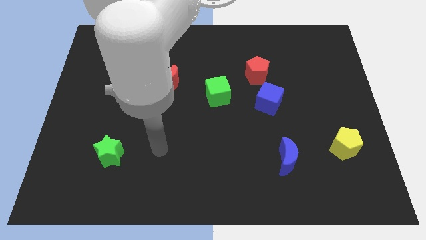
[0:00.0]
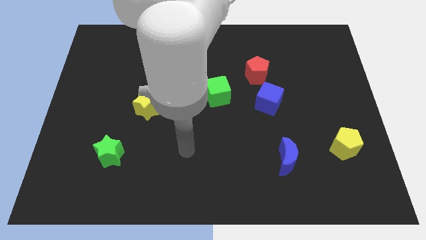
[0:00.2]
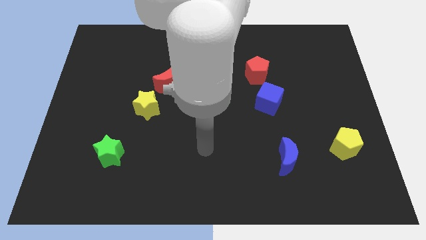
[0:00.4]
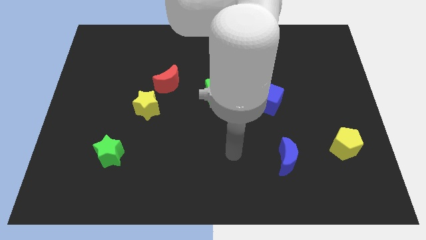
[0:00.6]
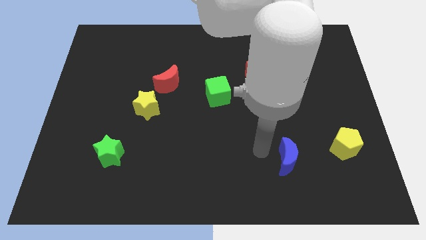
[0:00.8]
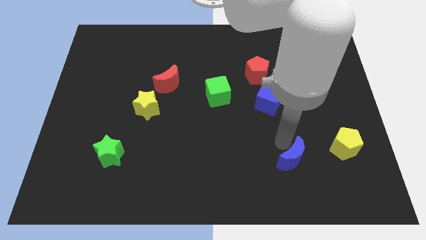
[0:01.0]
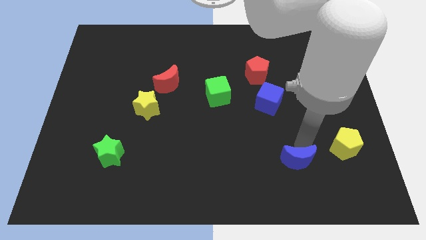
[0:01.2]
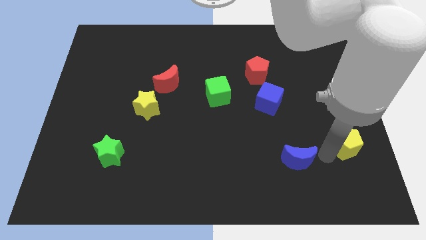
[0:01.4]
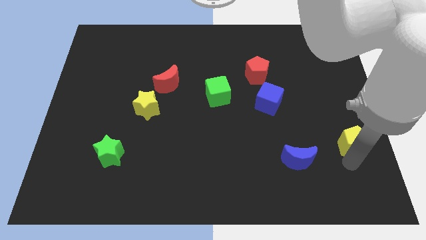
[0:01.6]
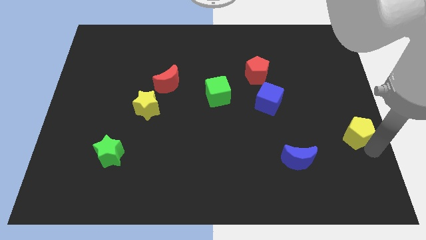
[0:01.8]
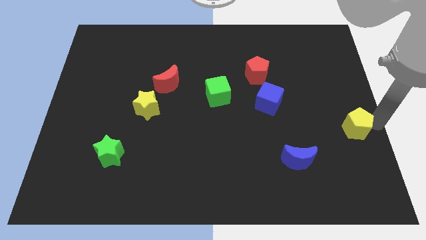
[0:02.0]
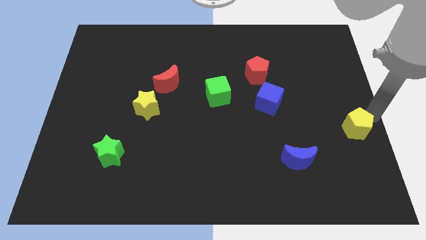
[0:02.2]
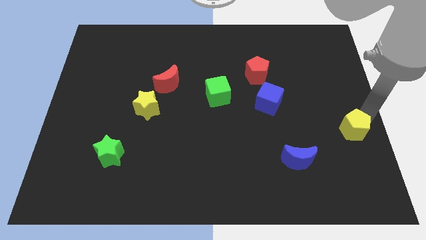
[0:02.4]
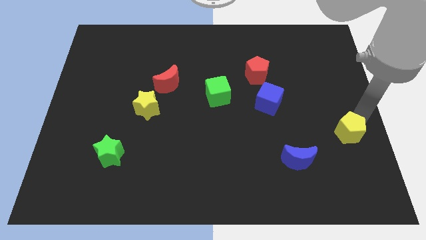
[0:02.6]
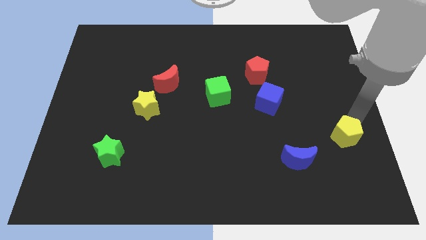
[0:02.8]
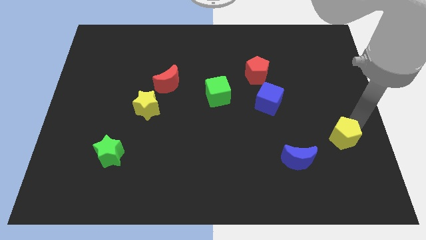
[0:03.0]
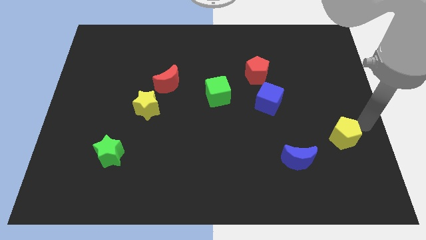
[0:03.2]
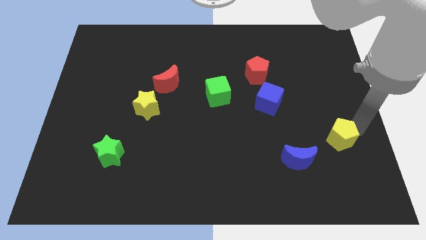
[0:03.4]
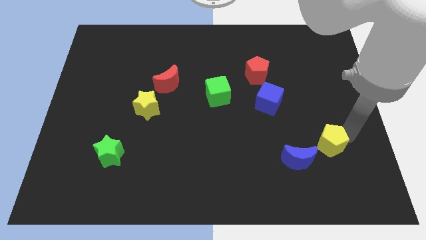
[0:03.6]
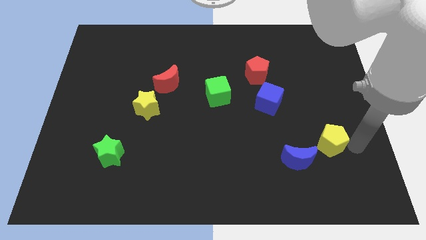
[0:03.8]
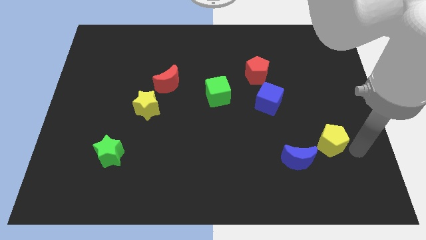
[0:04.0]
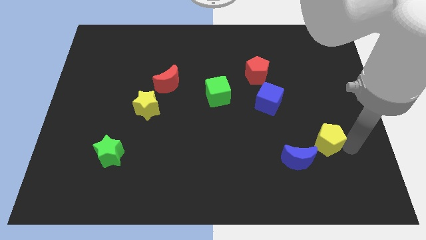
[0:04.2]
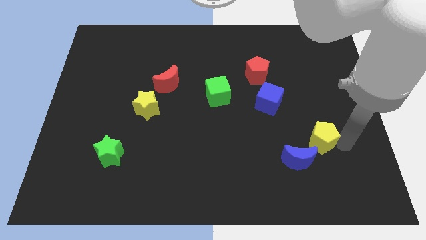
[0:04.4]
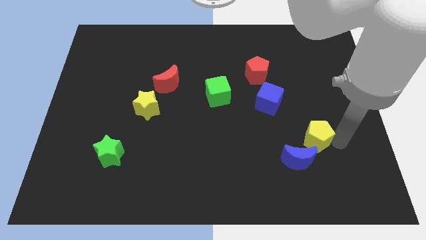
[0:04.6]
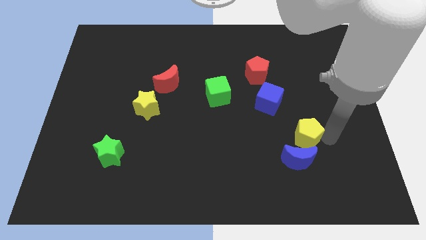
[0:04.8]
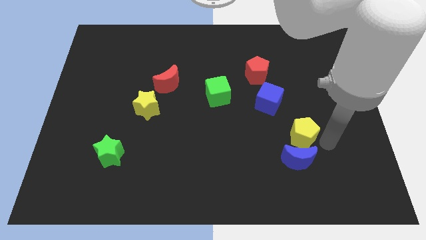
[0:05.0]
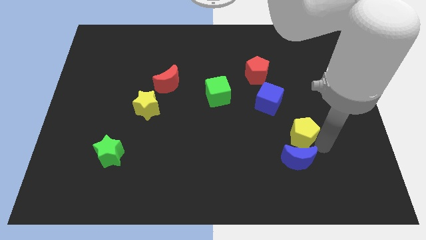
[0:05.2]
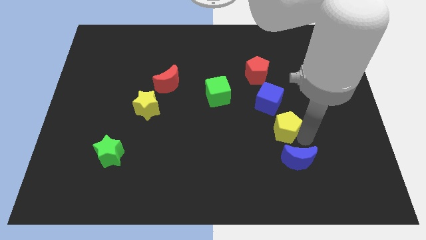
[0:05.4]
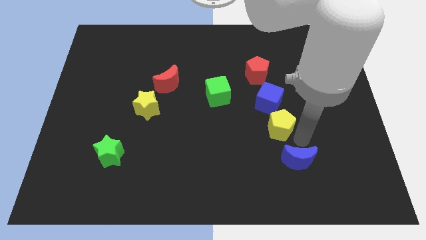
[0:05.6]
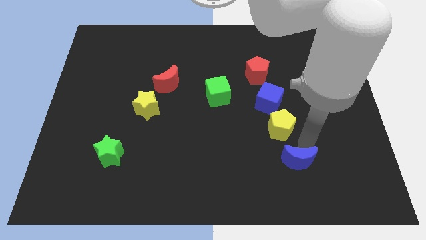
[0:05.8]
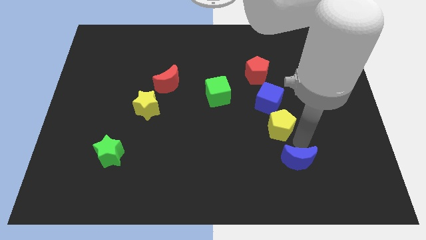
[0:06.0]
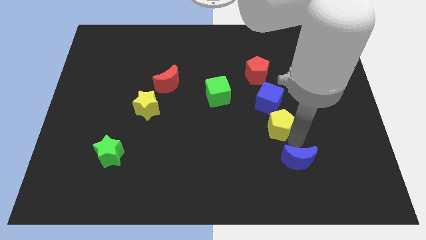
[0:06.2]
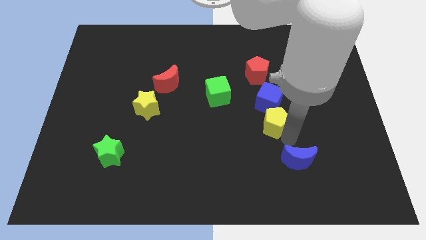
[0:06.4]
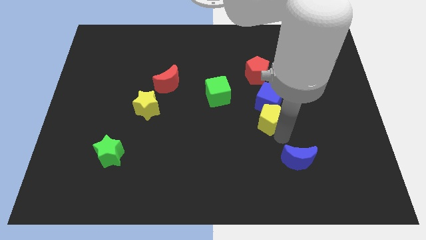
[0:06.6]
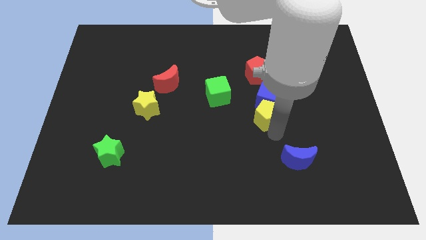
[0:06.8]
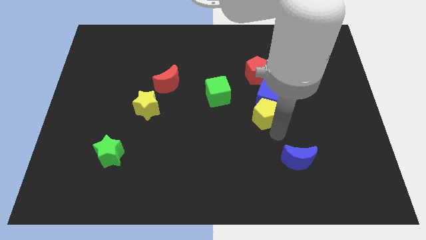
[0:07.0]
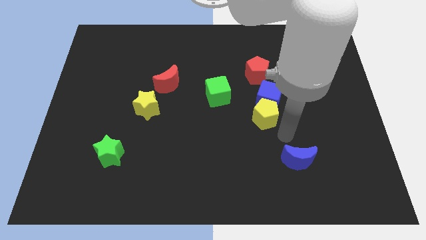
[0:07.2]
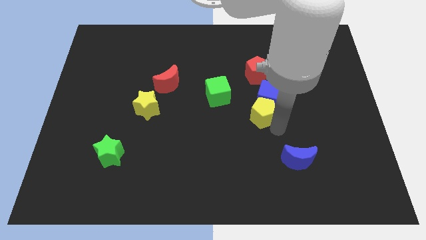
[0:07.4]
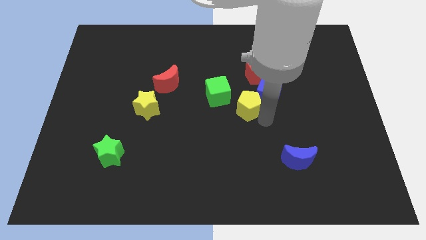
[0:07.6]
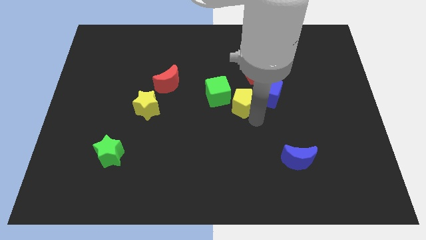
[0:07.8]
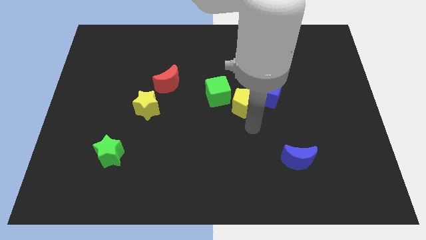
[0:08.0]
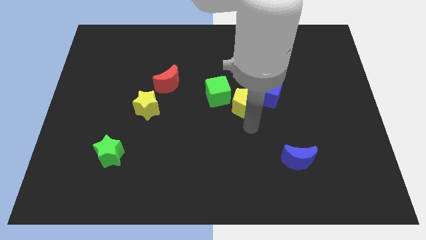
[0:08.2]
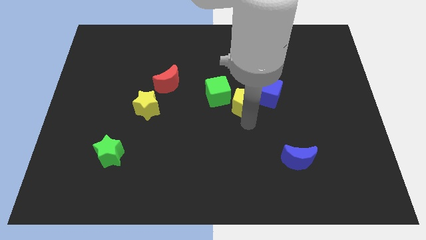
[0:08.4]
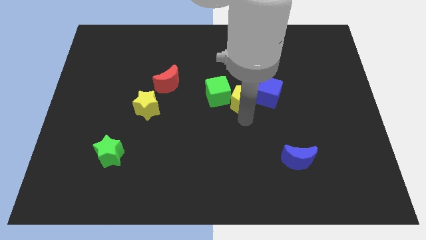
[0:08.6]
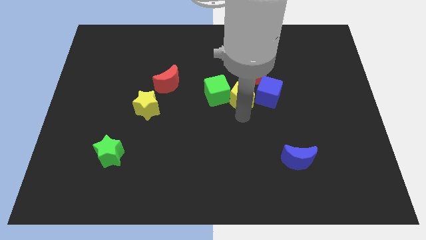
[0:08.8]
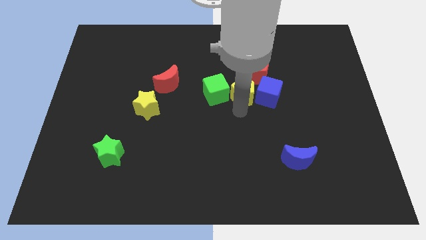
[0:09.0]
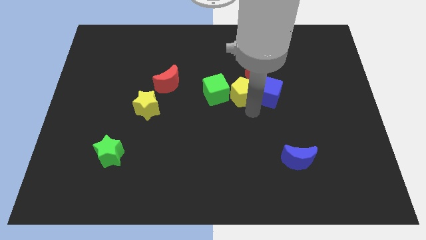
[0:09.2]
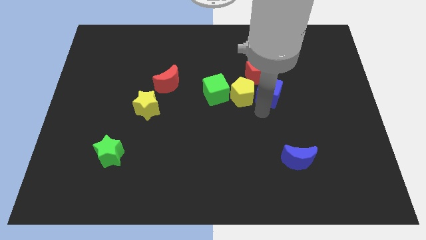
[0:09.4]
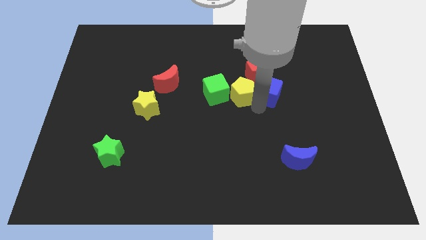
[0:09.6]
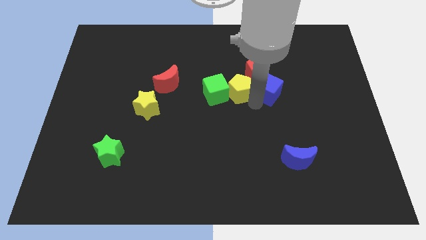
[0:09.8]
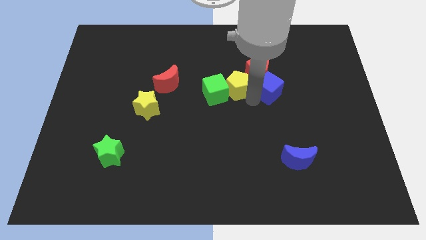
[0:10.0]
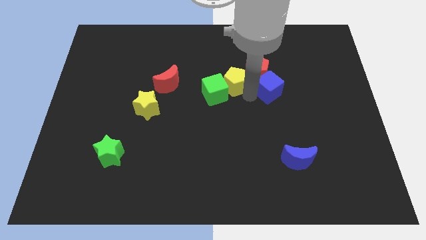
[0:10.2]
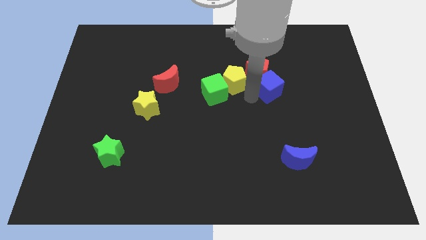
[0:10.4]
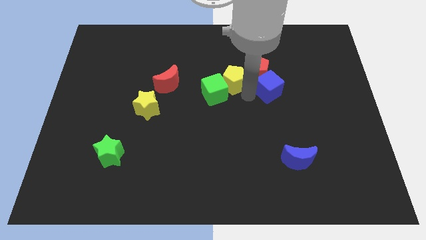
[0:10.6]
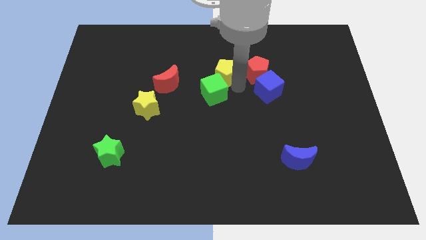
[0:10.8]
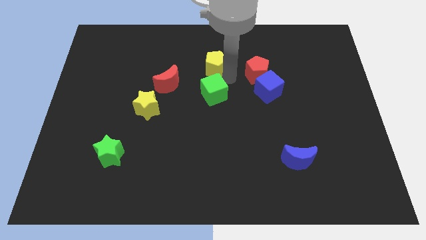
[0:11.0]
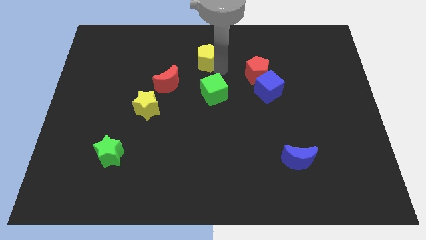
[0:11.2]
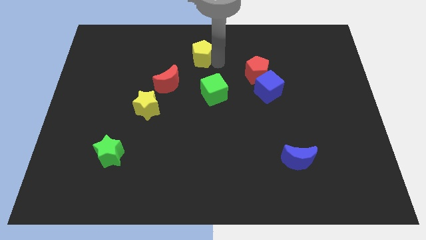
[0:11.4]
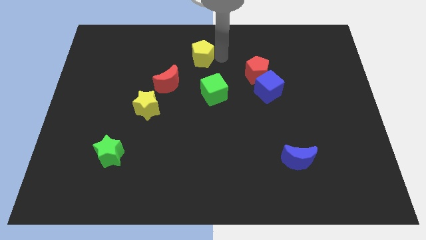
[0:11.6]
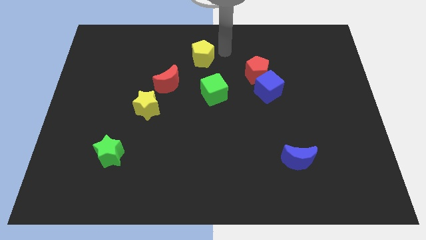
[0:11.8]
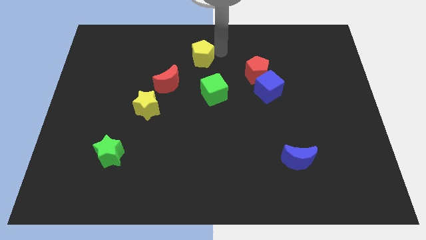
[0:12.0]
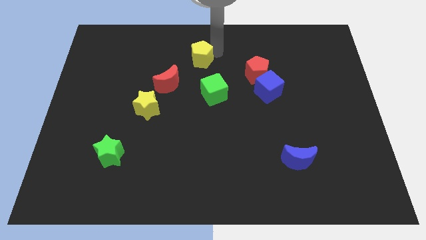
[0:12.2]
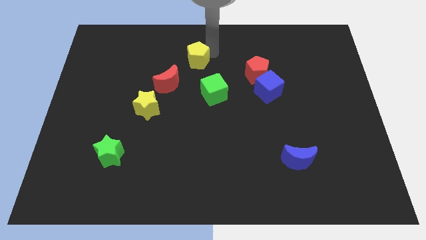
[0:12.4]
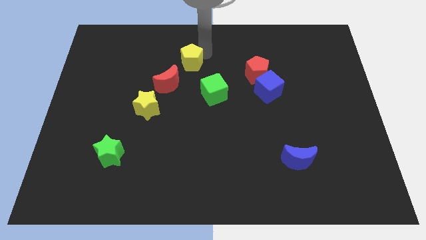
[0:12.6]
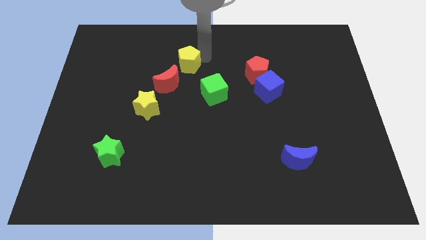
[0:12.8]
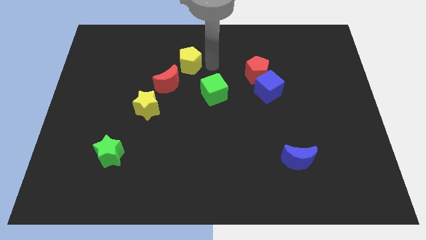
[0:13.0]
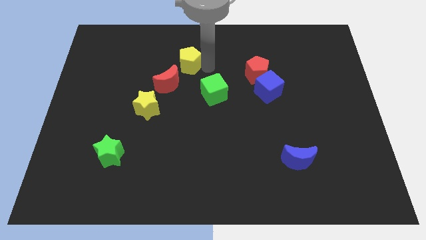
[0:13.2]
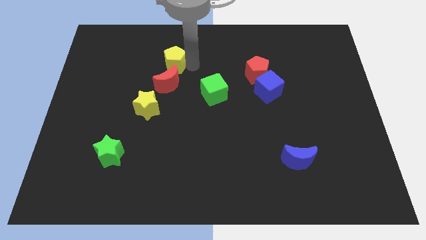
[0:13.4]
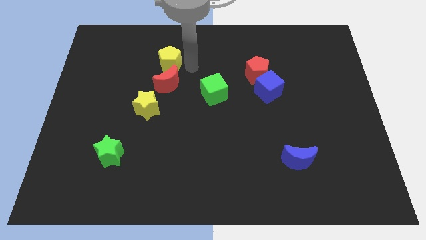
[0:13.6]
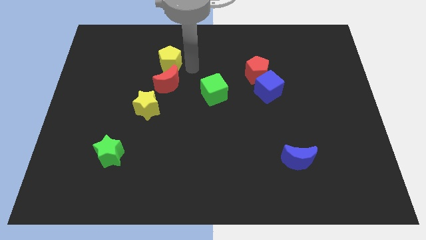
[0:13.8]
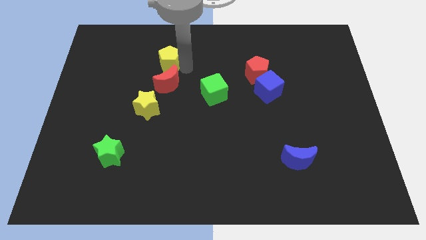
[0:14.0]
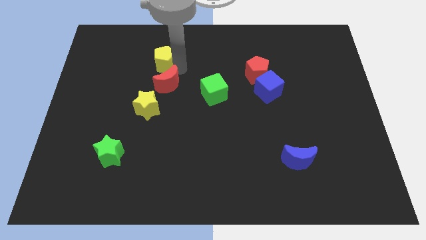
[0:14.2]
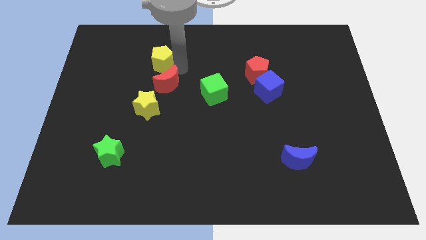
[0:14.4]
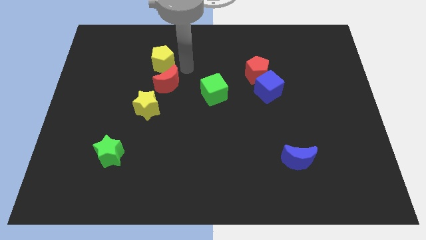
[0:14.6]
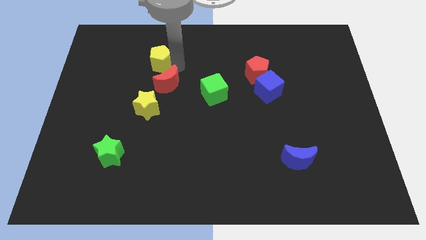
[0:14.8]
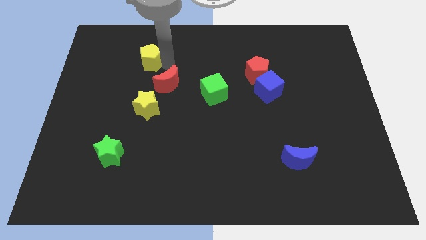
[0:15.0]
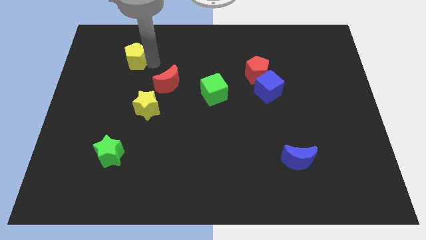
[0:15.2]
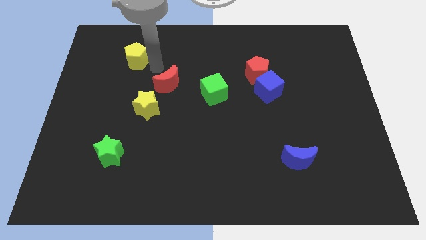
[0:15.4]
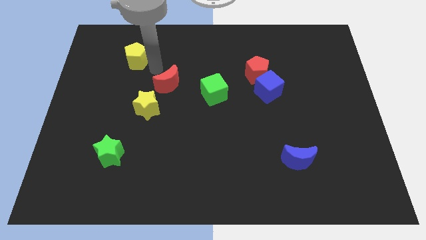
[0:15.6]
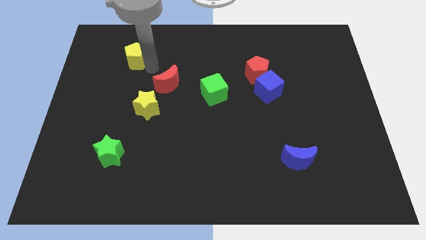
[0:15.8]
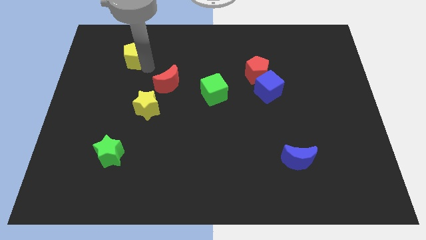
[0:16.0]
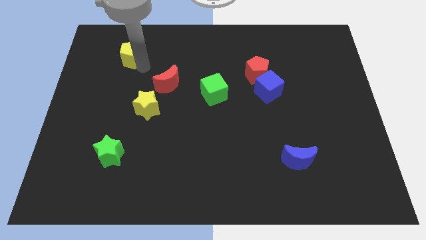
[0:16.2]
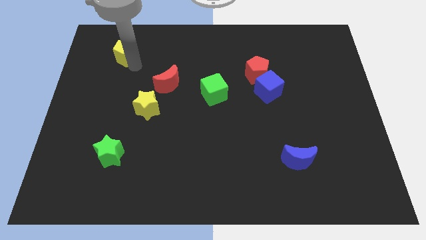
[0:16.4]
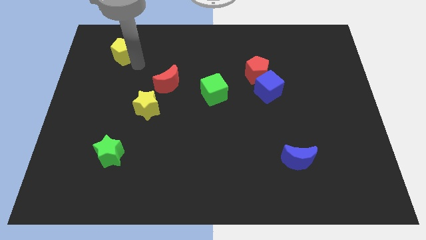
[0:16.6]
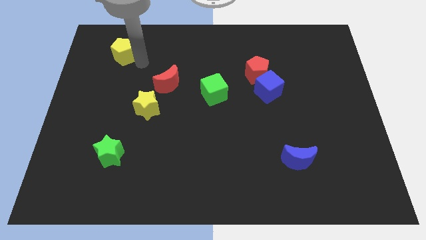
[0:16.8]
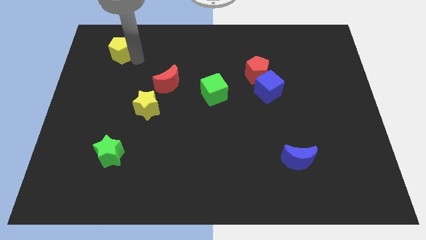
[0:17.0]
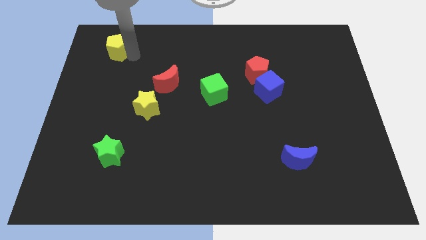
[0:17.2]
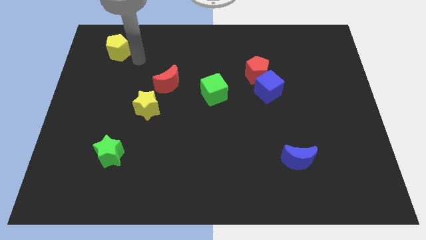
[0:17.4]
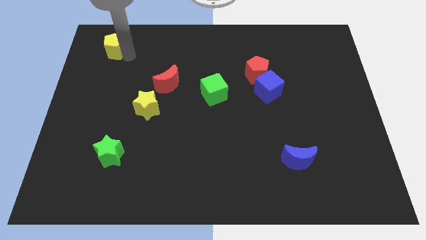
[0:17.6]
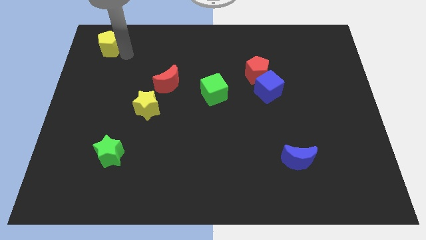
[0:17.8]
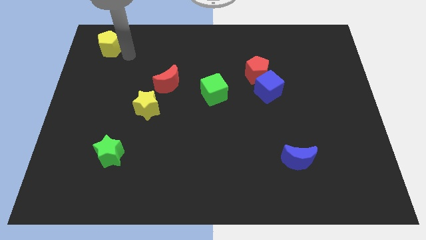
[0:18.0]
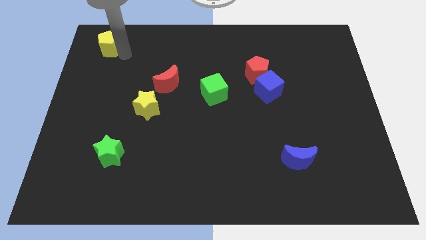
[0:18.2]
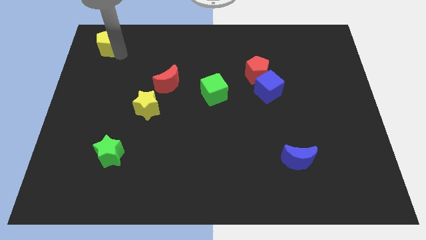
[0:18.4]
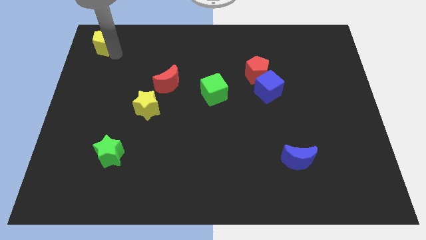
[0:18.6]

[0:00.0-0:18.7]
push the yellow pentagon to the top left
